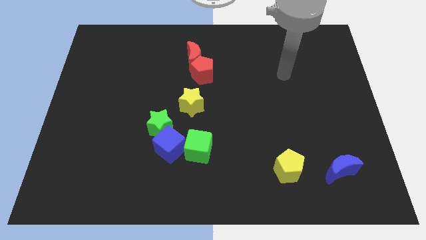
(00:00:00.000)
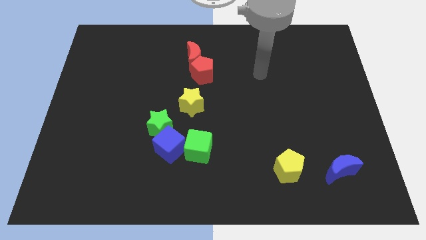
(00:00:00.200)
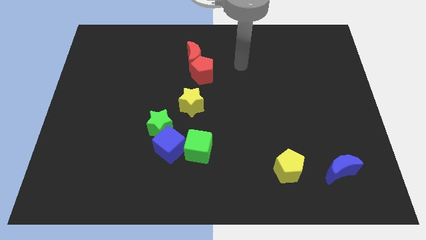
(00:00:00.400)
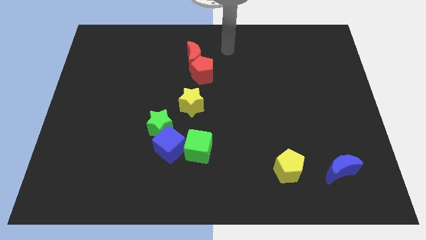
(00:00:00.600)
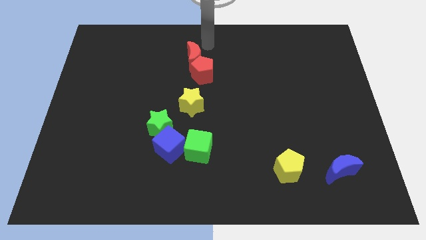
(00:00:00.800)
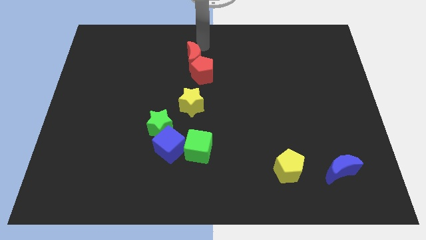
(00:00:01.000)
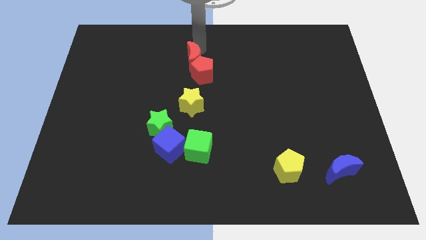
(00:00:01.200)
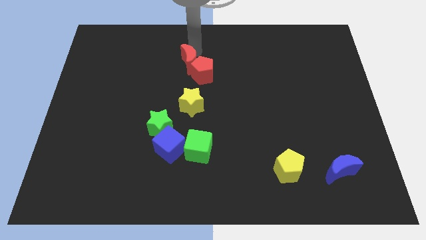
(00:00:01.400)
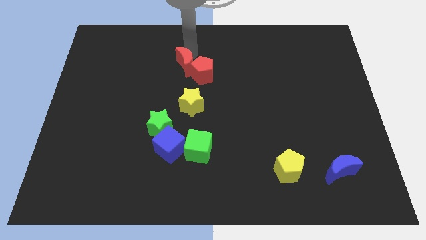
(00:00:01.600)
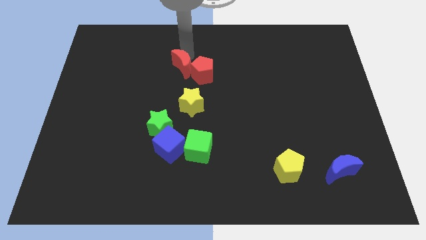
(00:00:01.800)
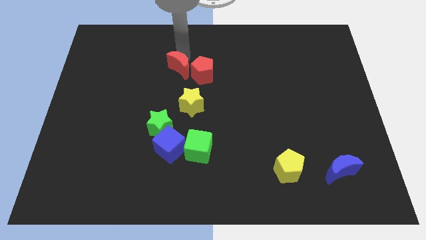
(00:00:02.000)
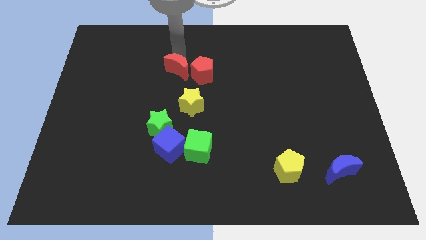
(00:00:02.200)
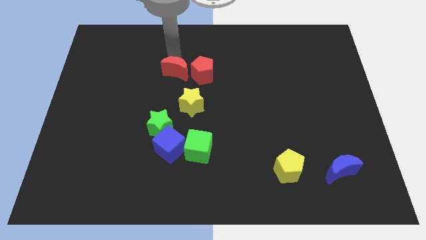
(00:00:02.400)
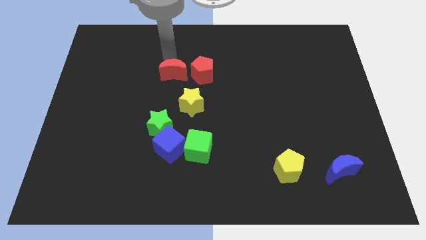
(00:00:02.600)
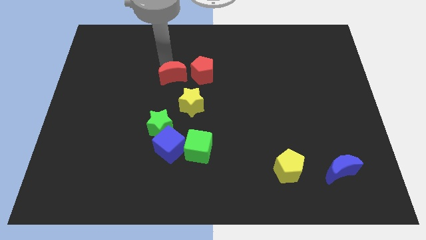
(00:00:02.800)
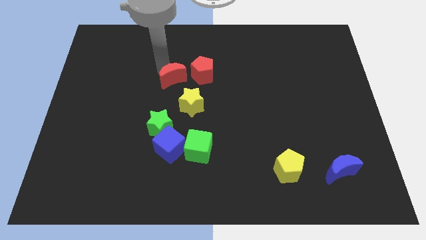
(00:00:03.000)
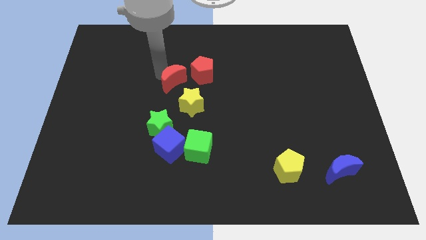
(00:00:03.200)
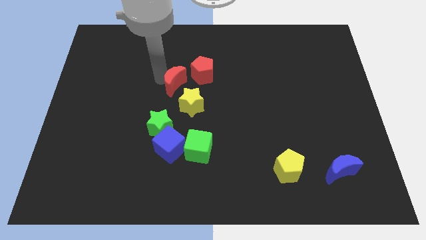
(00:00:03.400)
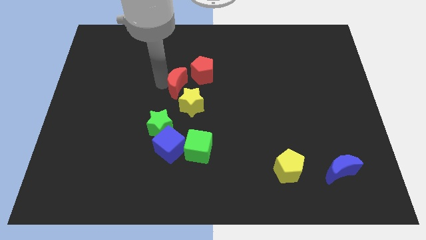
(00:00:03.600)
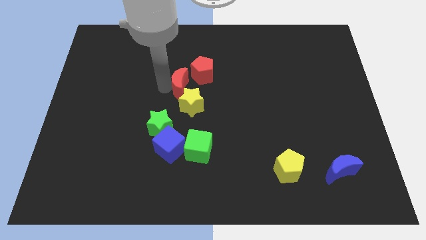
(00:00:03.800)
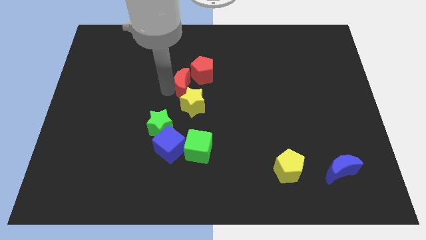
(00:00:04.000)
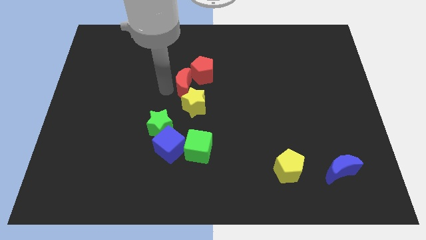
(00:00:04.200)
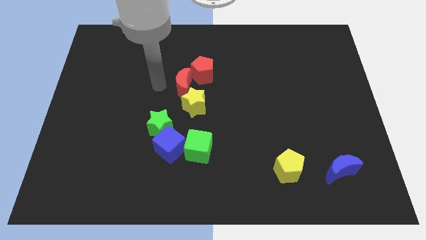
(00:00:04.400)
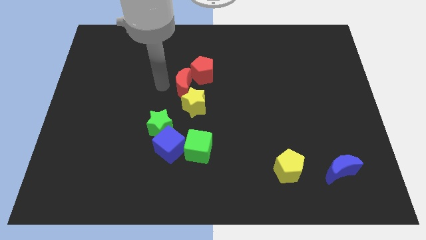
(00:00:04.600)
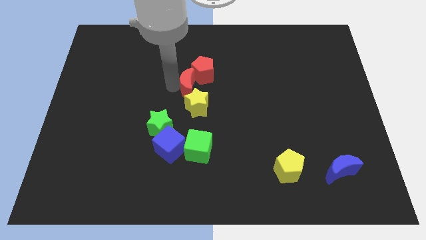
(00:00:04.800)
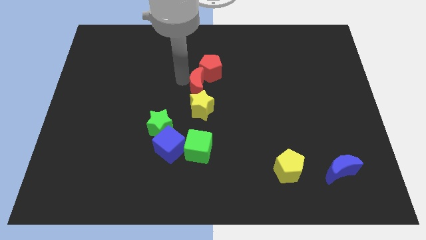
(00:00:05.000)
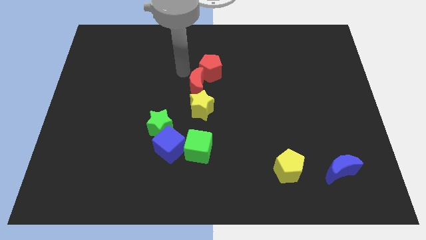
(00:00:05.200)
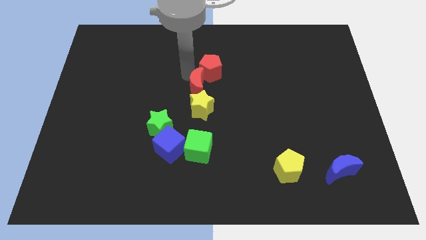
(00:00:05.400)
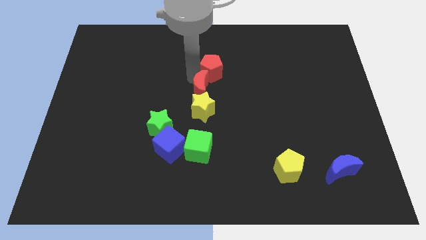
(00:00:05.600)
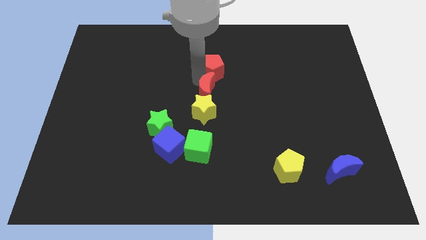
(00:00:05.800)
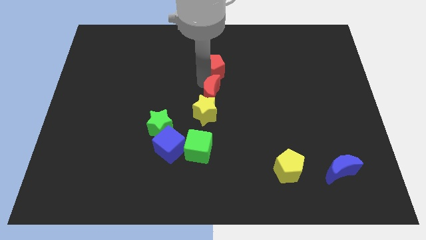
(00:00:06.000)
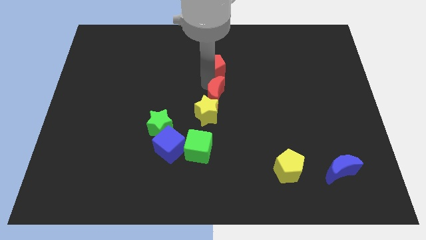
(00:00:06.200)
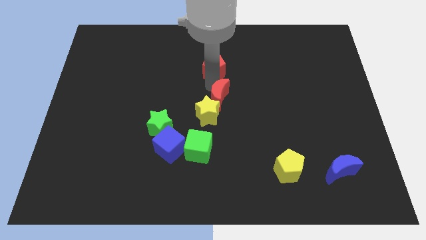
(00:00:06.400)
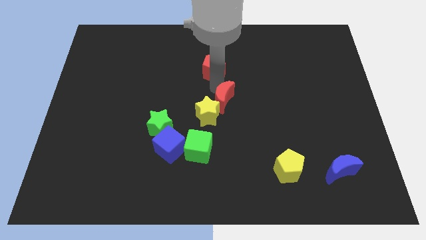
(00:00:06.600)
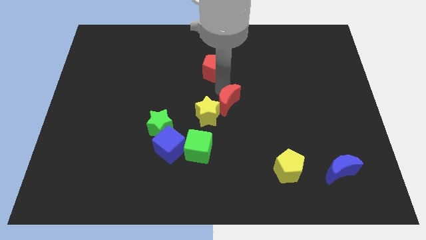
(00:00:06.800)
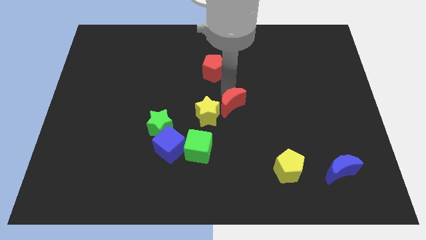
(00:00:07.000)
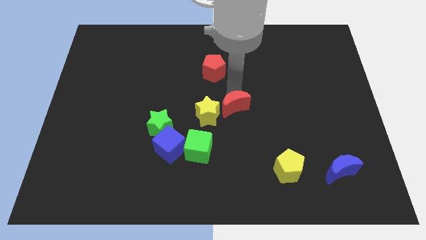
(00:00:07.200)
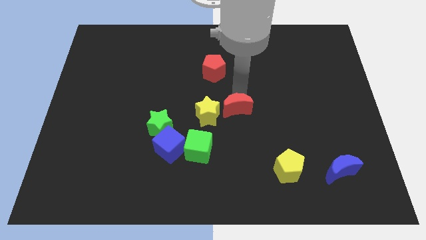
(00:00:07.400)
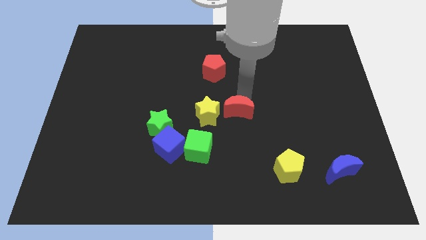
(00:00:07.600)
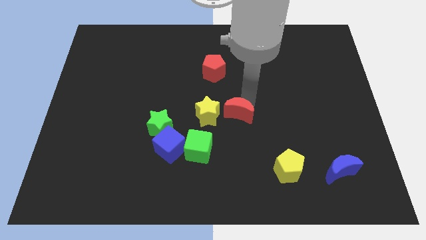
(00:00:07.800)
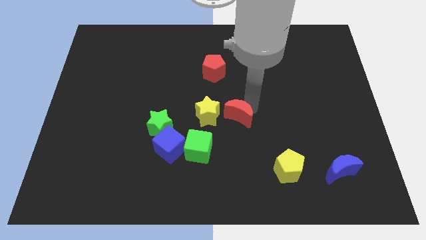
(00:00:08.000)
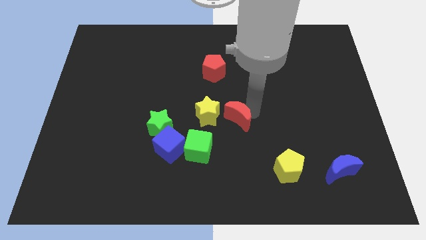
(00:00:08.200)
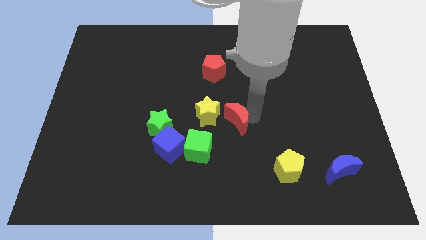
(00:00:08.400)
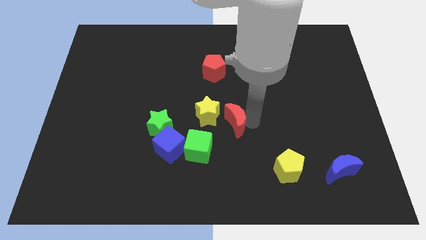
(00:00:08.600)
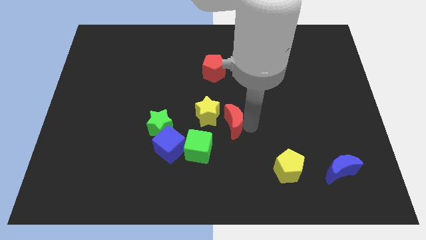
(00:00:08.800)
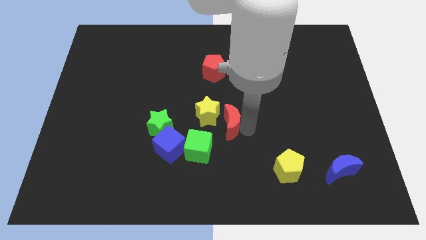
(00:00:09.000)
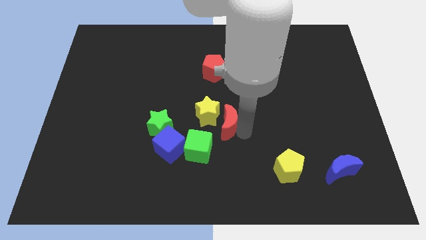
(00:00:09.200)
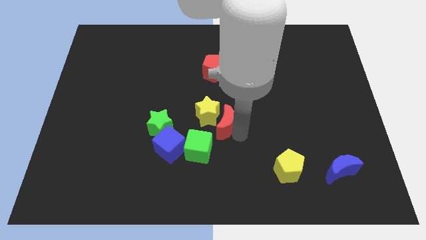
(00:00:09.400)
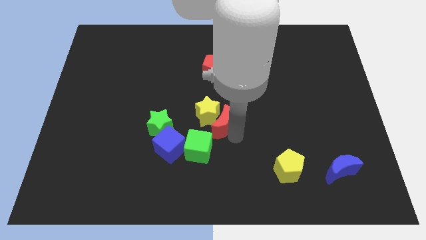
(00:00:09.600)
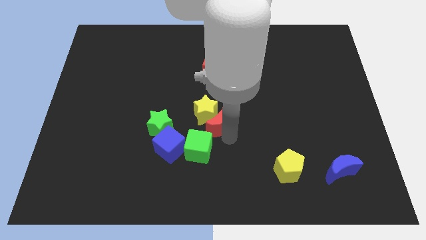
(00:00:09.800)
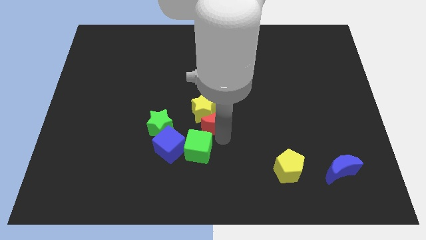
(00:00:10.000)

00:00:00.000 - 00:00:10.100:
slide the red moon downwards

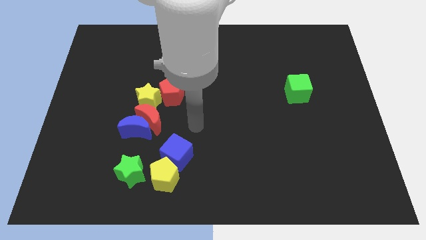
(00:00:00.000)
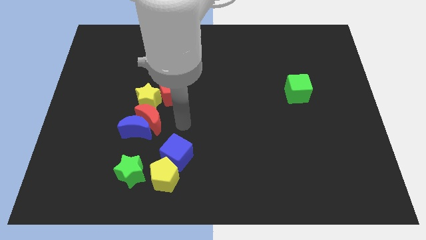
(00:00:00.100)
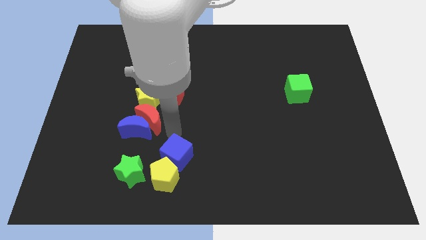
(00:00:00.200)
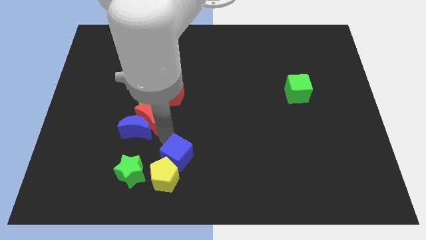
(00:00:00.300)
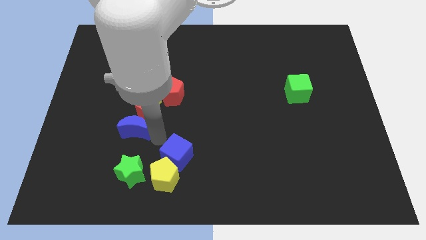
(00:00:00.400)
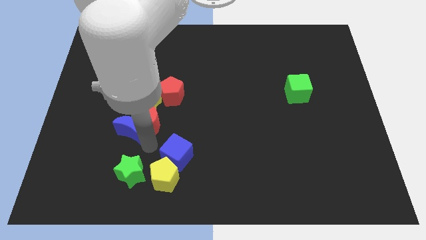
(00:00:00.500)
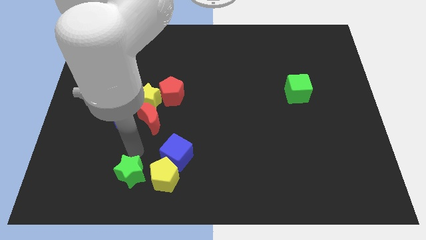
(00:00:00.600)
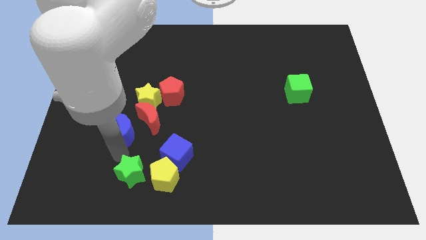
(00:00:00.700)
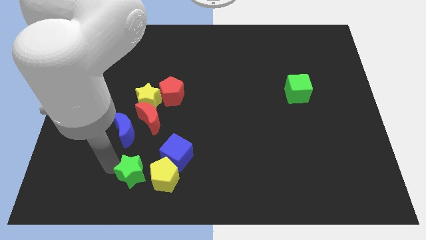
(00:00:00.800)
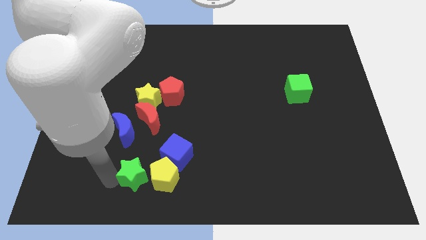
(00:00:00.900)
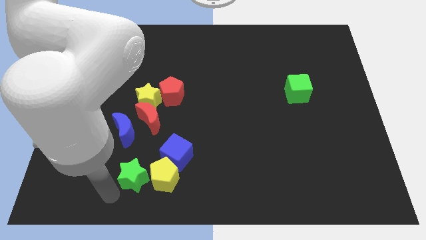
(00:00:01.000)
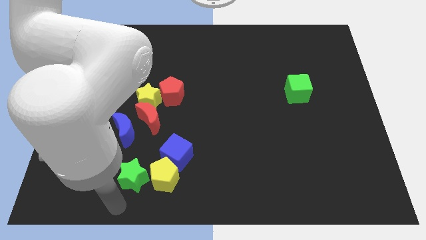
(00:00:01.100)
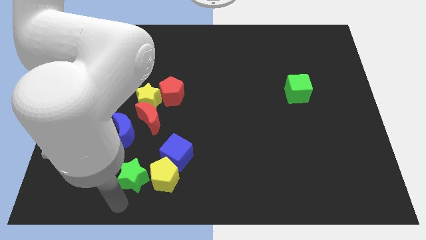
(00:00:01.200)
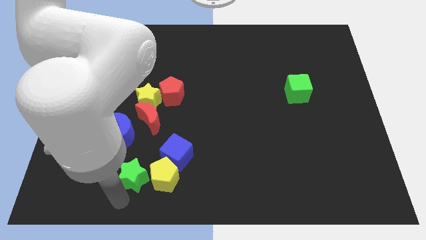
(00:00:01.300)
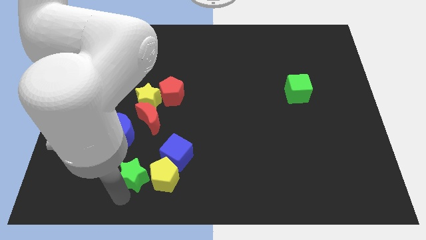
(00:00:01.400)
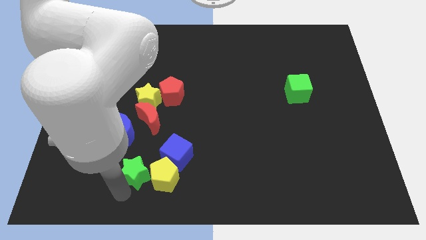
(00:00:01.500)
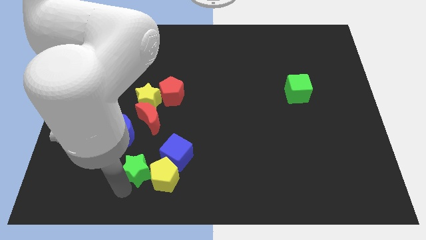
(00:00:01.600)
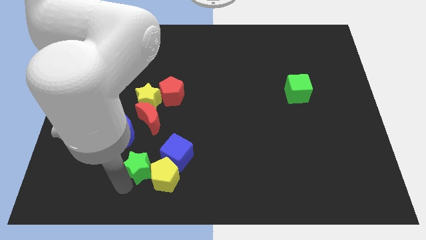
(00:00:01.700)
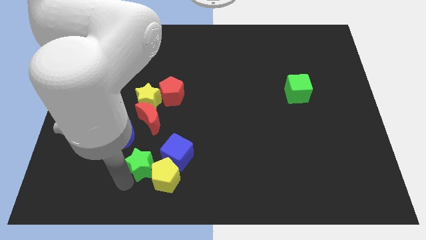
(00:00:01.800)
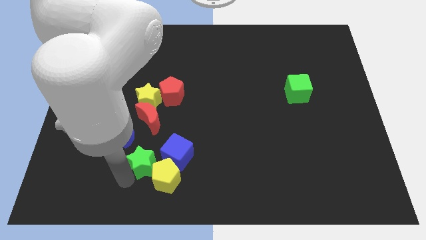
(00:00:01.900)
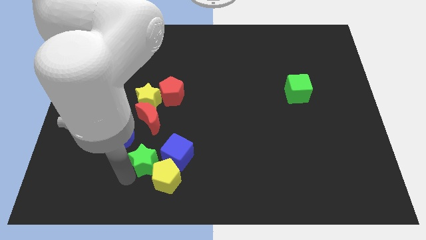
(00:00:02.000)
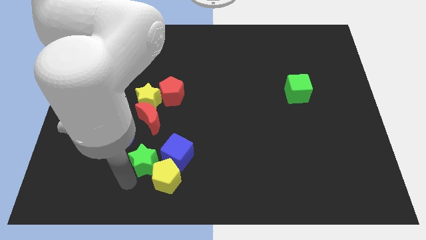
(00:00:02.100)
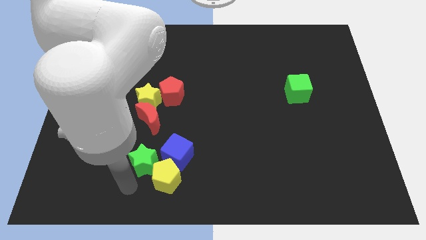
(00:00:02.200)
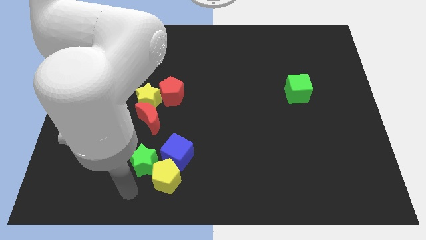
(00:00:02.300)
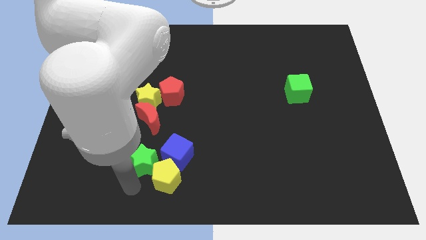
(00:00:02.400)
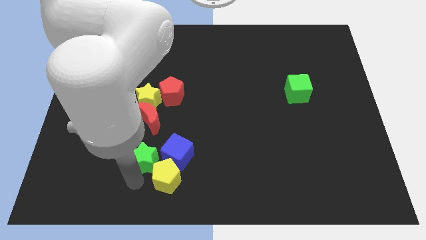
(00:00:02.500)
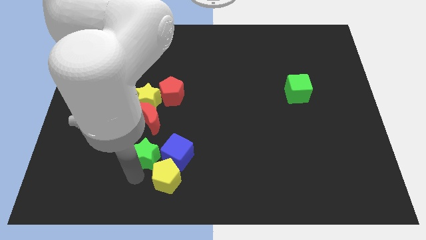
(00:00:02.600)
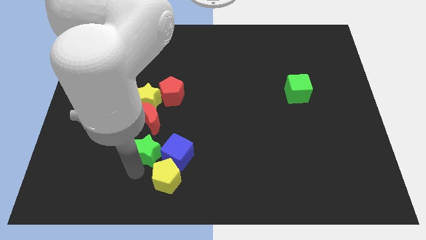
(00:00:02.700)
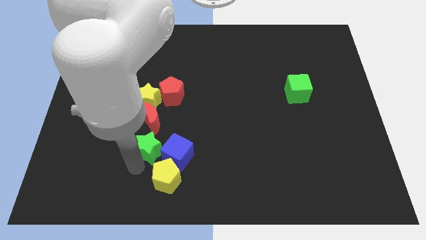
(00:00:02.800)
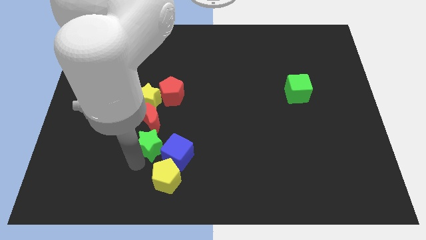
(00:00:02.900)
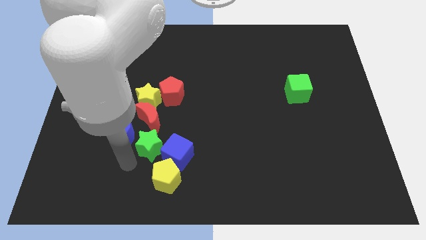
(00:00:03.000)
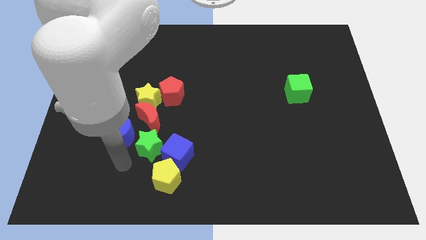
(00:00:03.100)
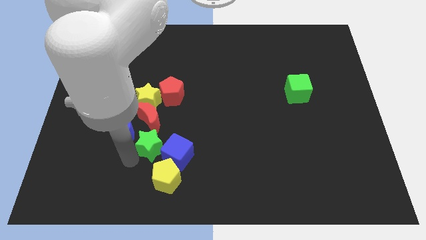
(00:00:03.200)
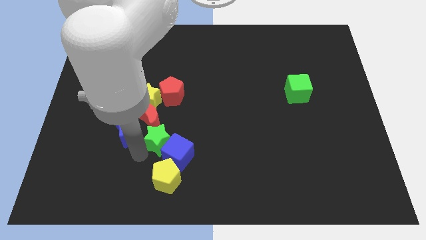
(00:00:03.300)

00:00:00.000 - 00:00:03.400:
move the green star upwards and right diagonally a little
